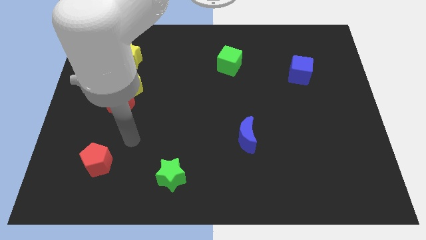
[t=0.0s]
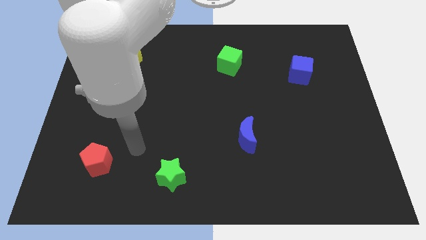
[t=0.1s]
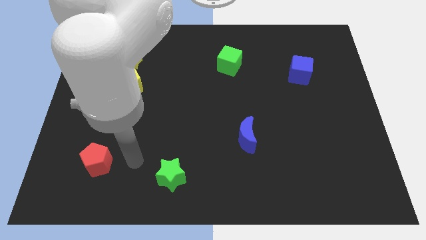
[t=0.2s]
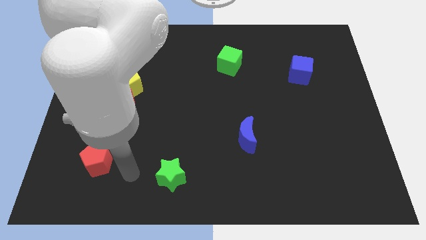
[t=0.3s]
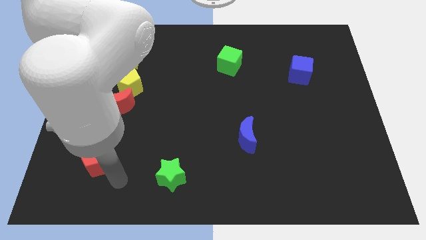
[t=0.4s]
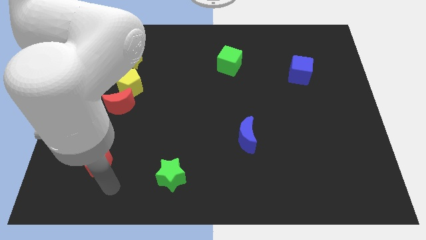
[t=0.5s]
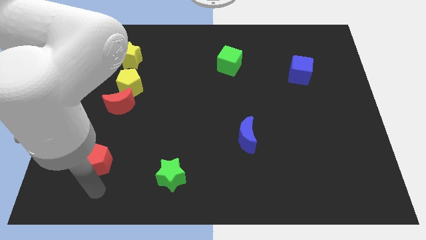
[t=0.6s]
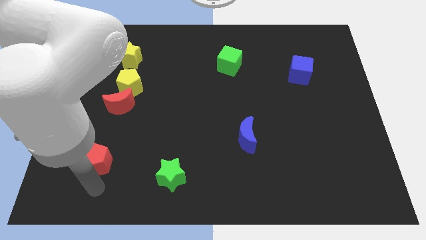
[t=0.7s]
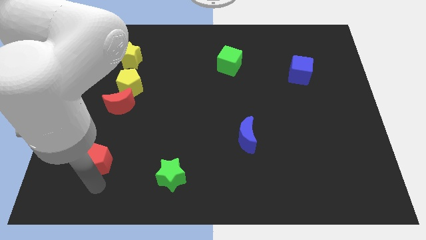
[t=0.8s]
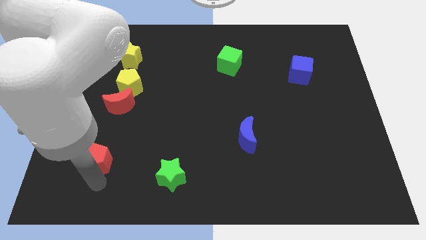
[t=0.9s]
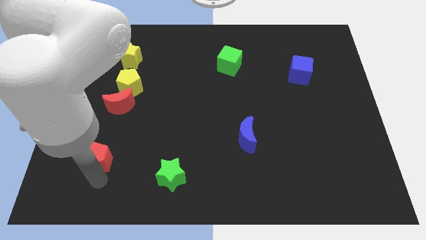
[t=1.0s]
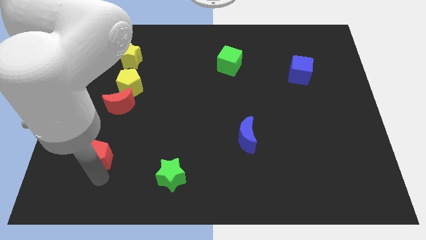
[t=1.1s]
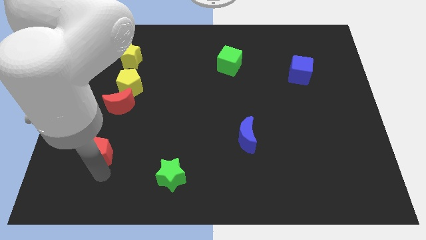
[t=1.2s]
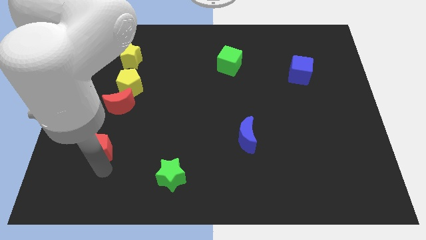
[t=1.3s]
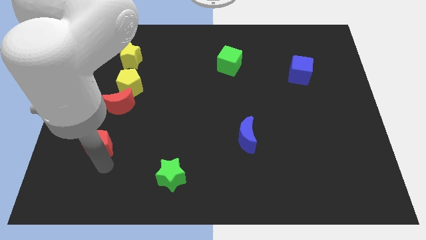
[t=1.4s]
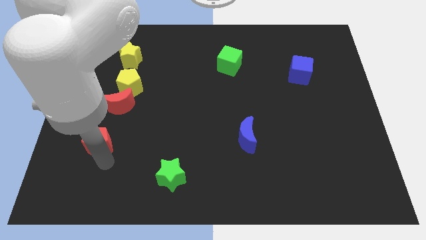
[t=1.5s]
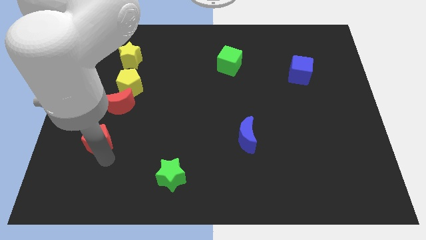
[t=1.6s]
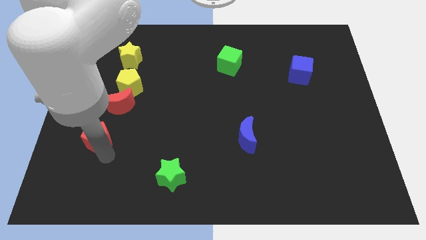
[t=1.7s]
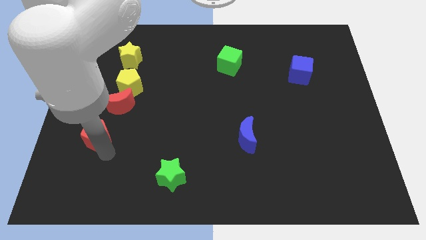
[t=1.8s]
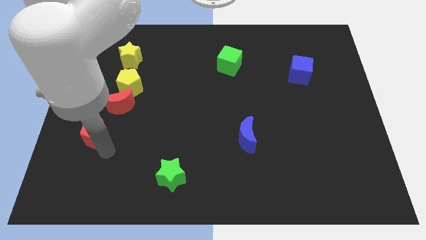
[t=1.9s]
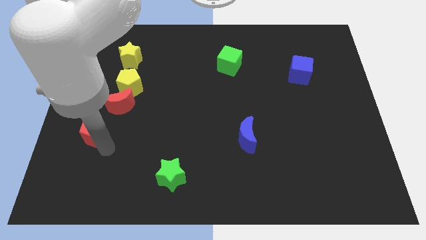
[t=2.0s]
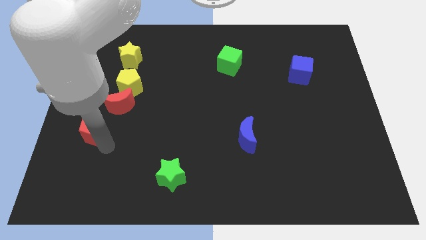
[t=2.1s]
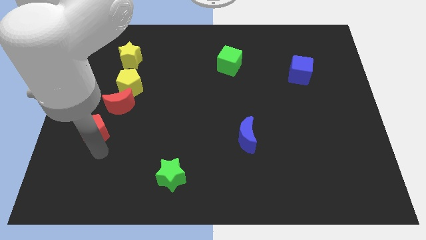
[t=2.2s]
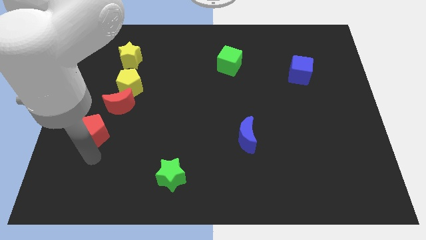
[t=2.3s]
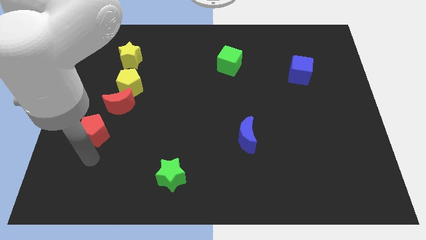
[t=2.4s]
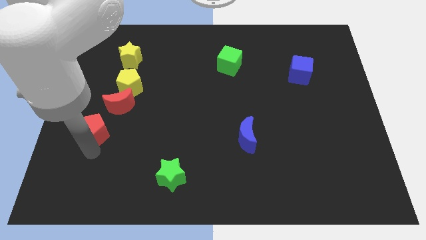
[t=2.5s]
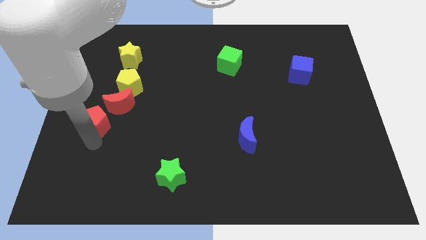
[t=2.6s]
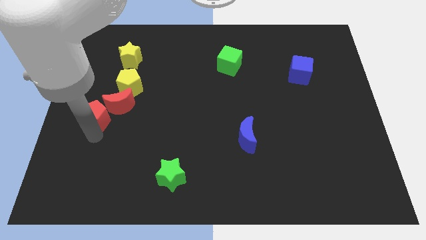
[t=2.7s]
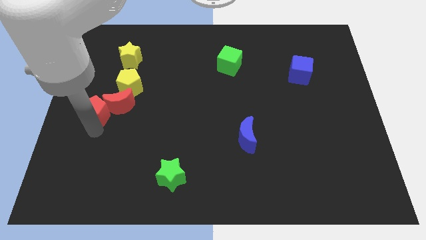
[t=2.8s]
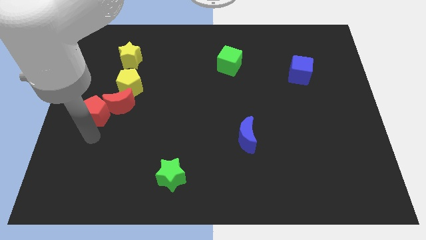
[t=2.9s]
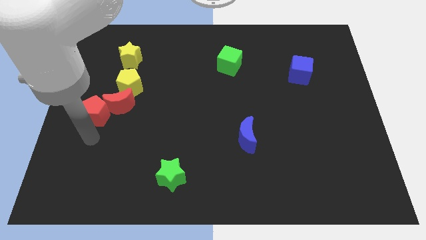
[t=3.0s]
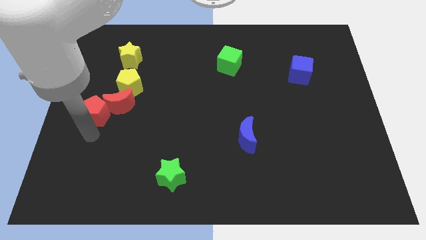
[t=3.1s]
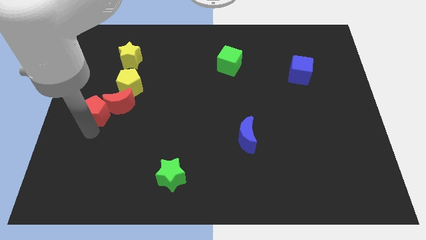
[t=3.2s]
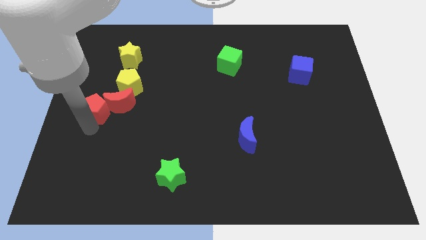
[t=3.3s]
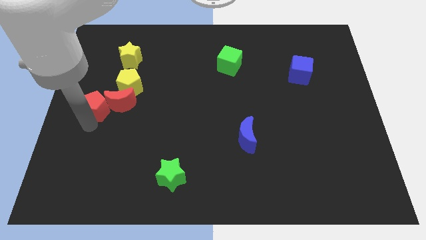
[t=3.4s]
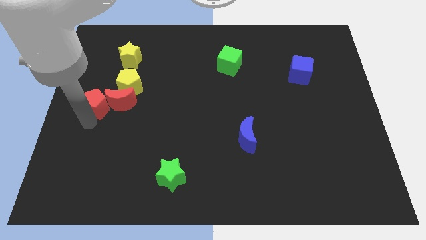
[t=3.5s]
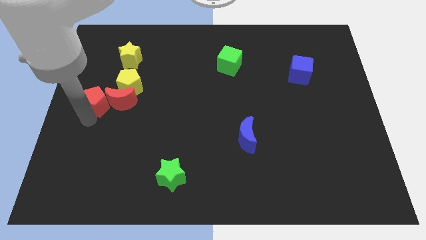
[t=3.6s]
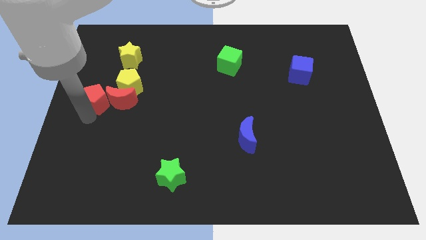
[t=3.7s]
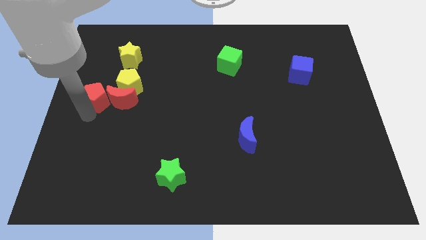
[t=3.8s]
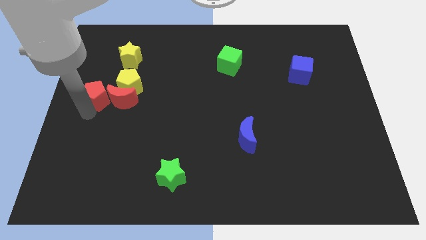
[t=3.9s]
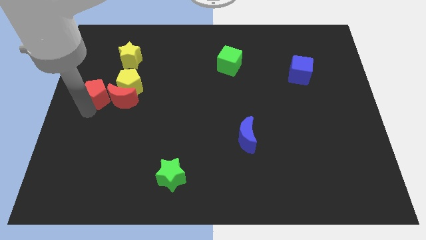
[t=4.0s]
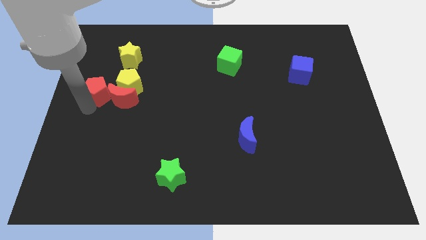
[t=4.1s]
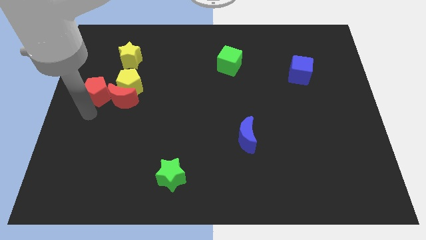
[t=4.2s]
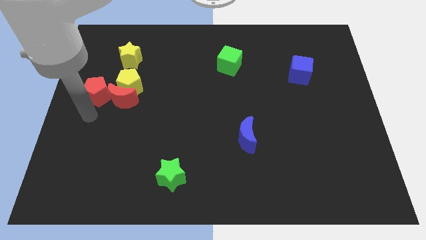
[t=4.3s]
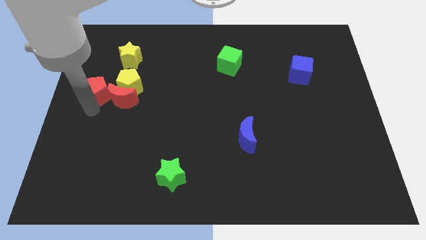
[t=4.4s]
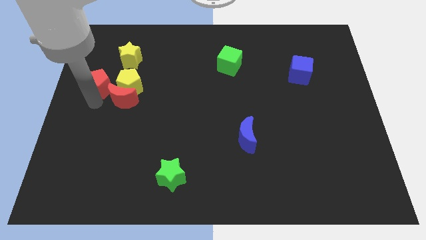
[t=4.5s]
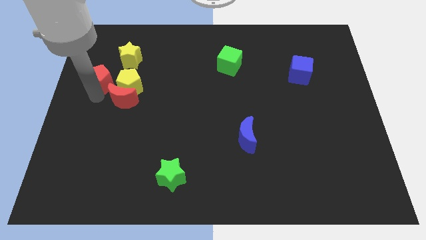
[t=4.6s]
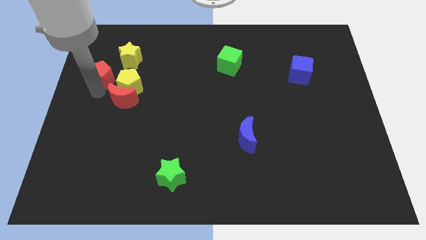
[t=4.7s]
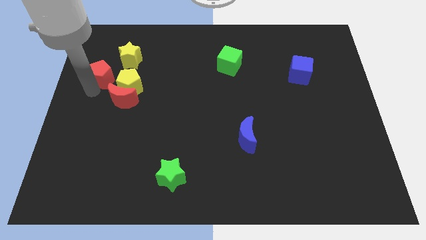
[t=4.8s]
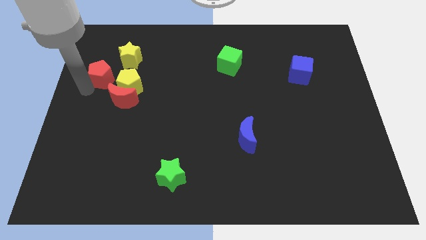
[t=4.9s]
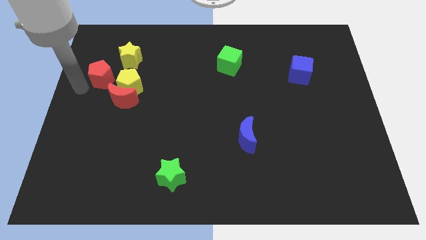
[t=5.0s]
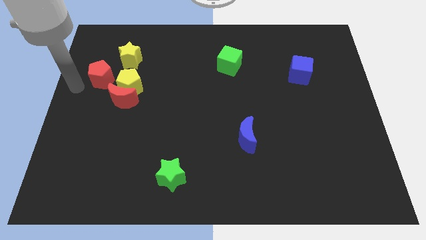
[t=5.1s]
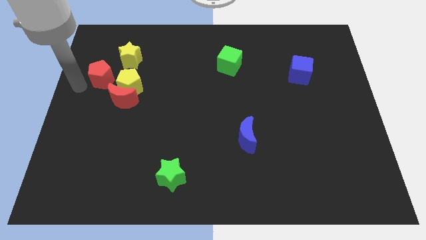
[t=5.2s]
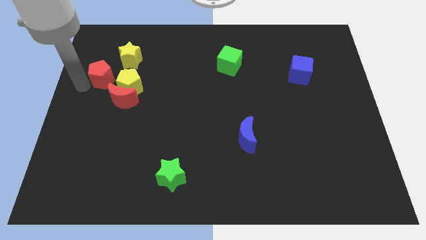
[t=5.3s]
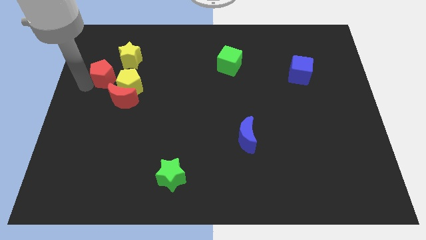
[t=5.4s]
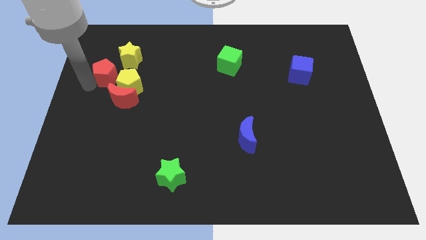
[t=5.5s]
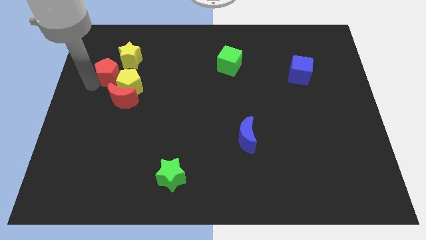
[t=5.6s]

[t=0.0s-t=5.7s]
move the red pentagon to the top side of the red moon

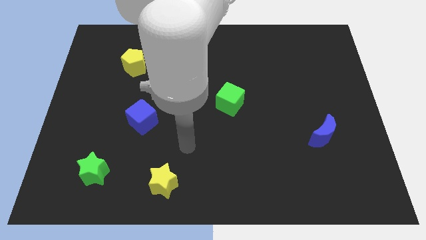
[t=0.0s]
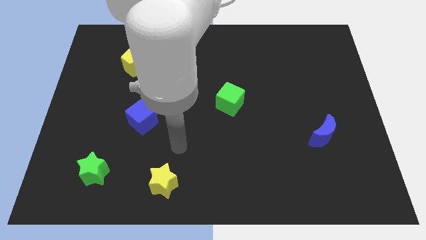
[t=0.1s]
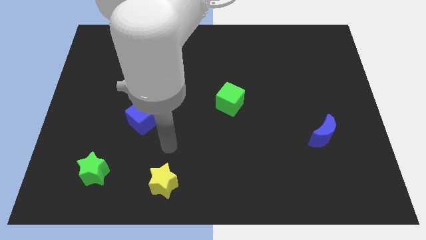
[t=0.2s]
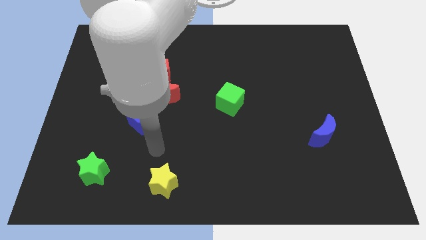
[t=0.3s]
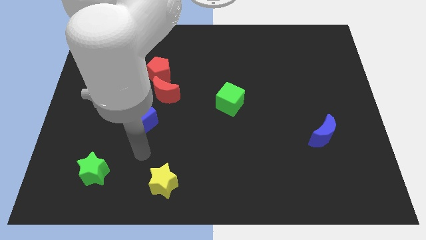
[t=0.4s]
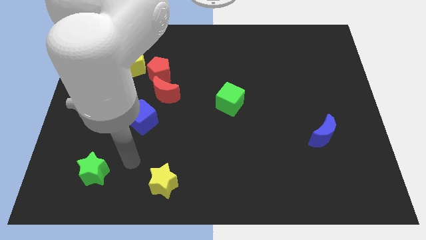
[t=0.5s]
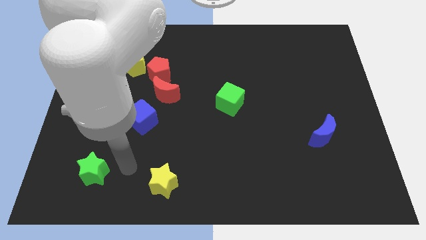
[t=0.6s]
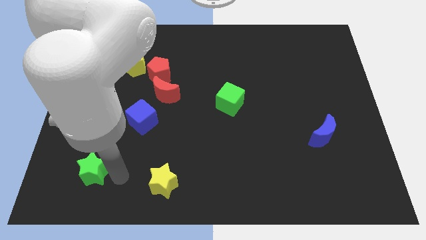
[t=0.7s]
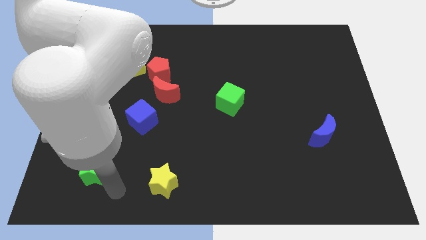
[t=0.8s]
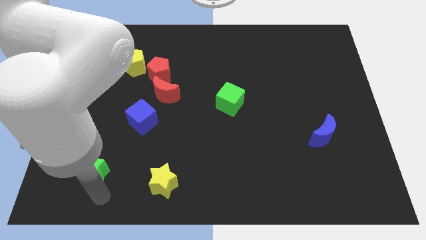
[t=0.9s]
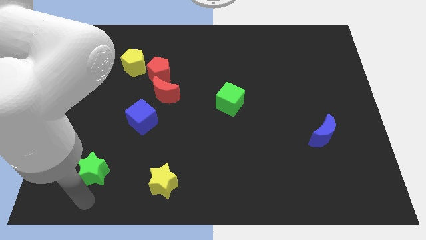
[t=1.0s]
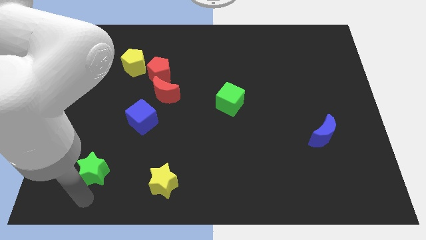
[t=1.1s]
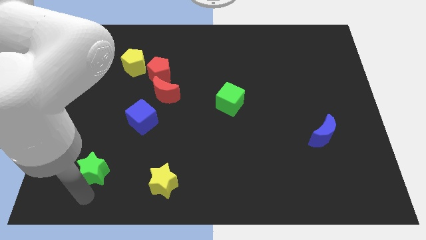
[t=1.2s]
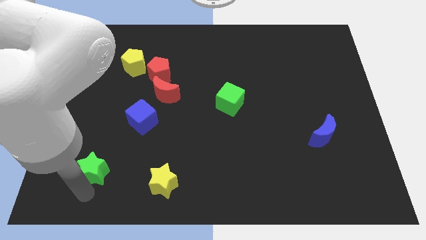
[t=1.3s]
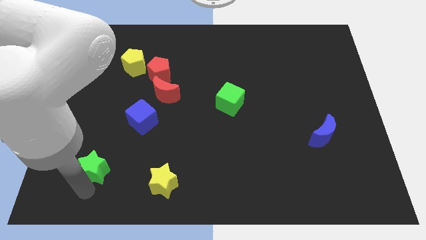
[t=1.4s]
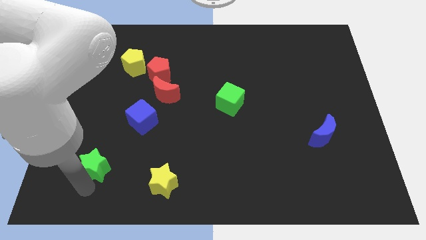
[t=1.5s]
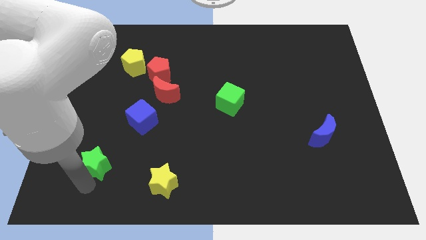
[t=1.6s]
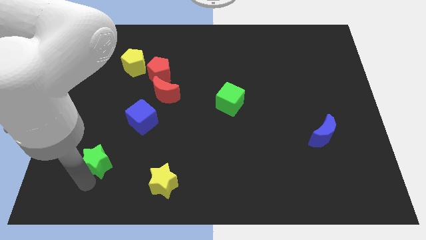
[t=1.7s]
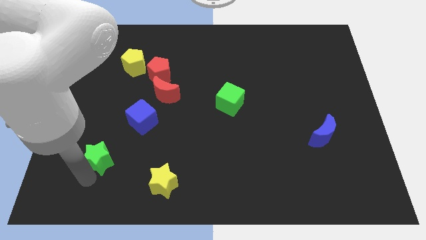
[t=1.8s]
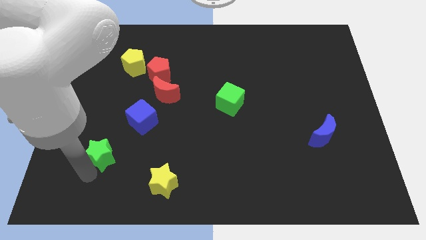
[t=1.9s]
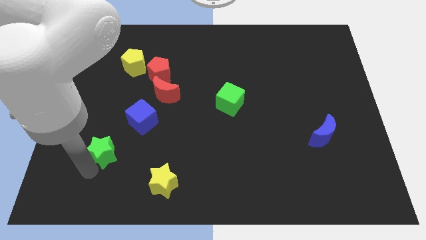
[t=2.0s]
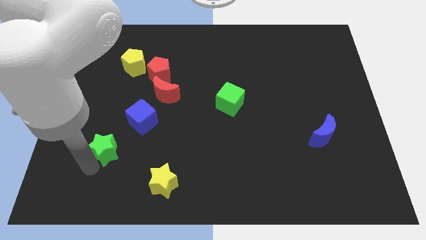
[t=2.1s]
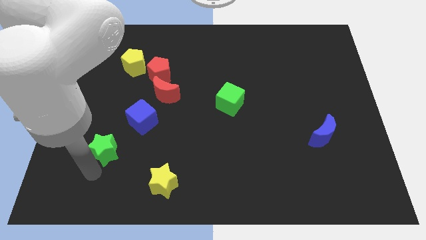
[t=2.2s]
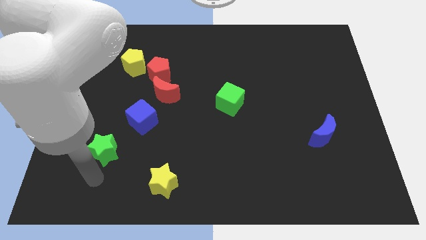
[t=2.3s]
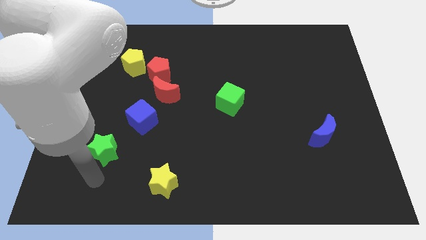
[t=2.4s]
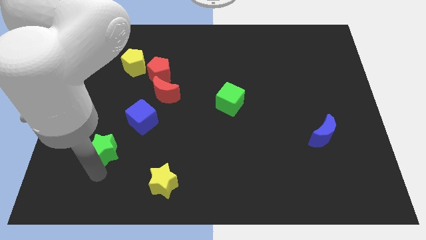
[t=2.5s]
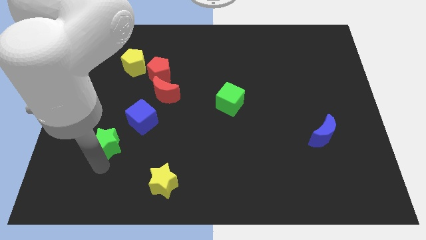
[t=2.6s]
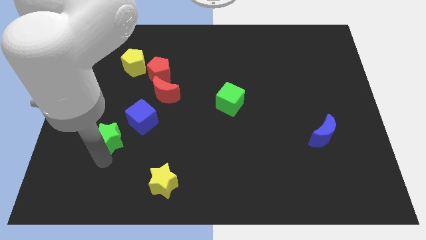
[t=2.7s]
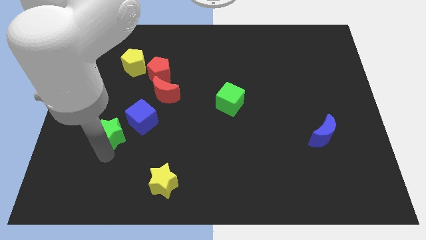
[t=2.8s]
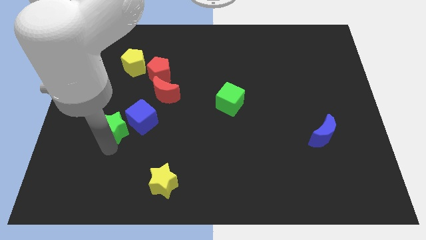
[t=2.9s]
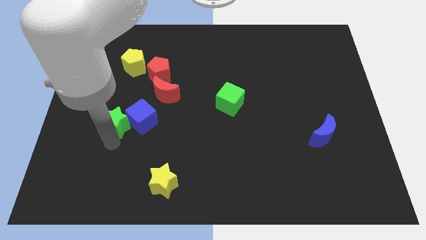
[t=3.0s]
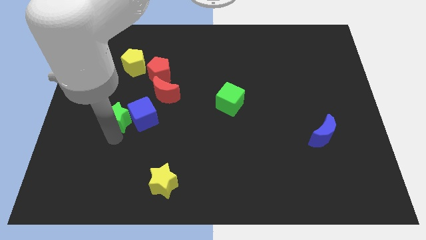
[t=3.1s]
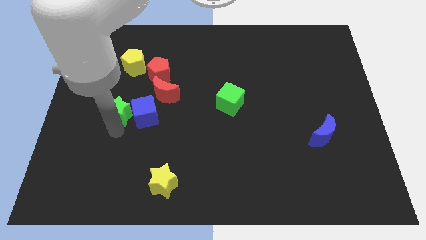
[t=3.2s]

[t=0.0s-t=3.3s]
put the green star to the bottom side of the yellow pentagon
